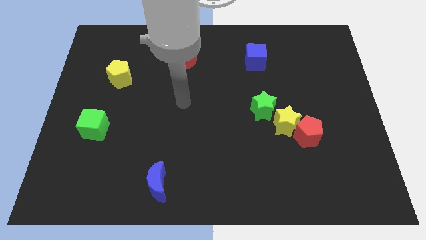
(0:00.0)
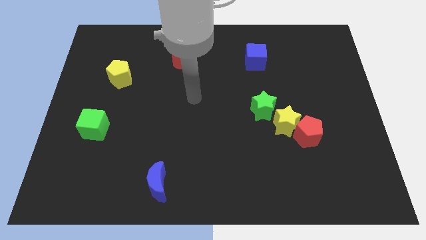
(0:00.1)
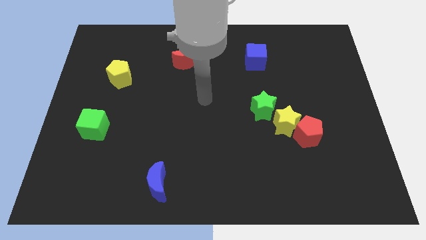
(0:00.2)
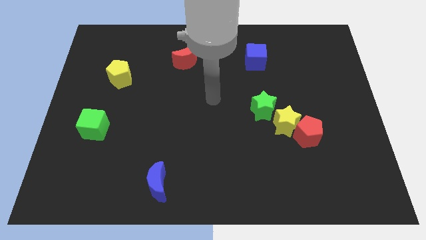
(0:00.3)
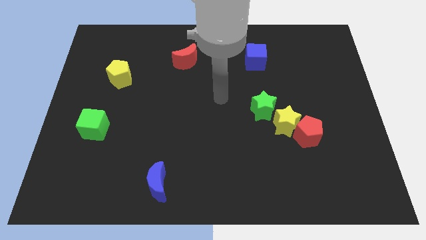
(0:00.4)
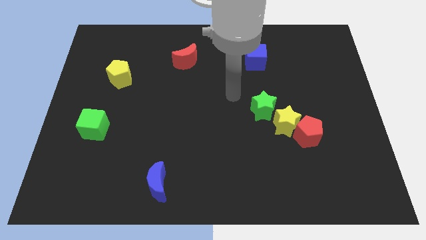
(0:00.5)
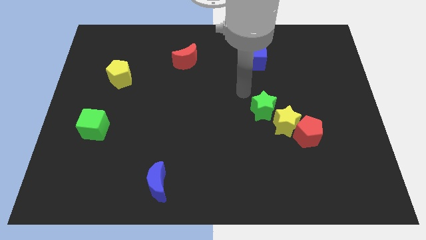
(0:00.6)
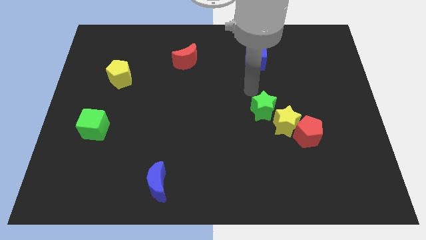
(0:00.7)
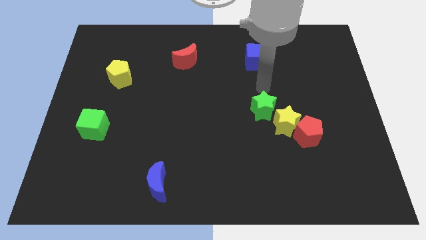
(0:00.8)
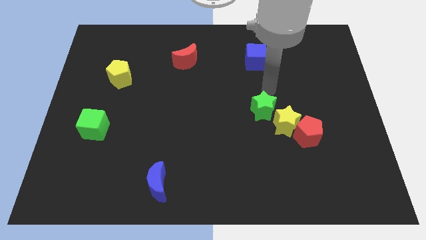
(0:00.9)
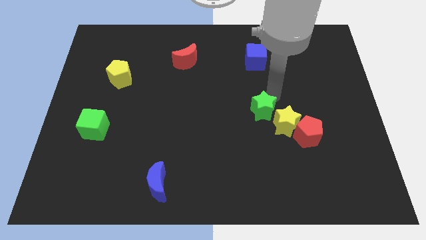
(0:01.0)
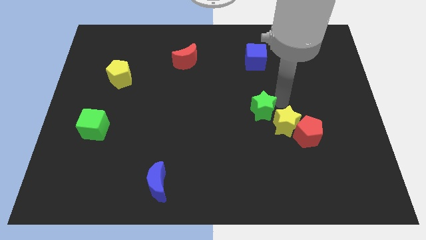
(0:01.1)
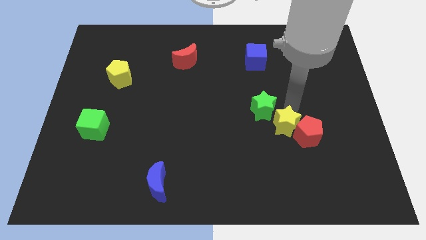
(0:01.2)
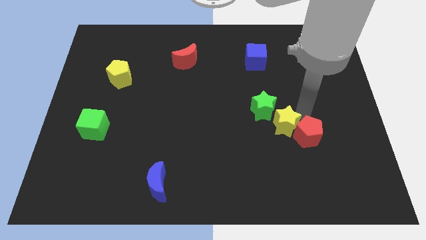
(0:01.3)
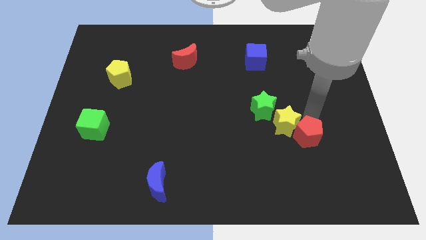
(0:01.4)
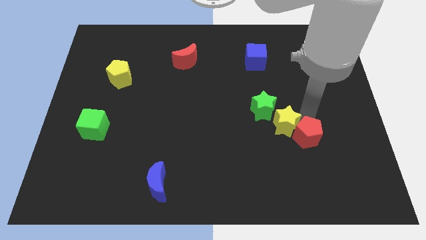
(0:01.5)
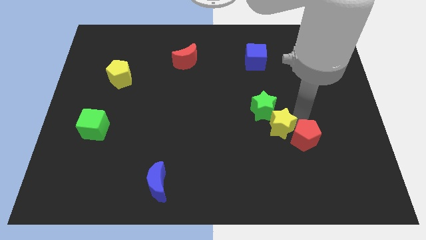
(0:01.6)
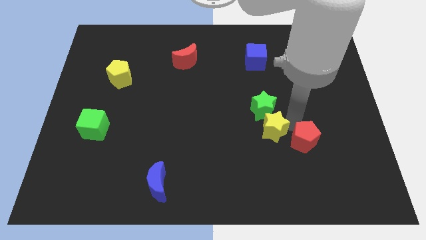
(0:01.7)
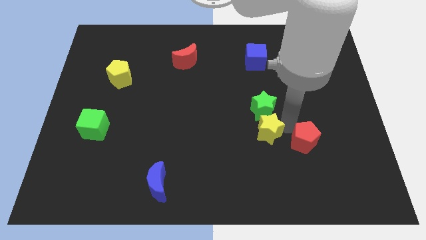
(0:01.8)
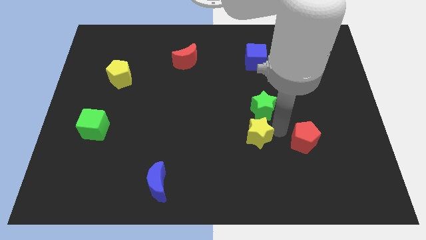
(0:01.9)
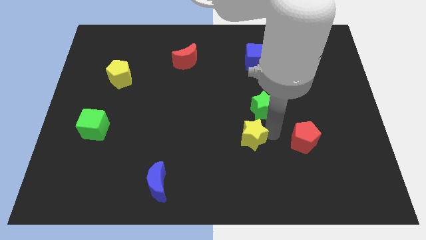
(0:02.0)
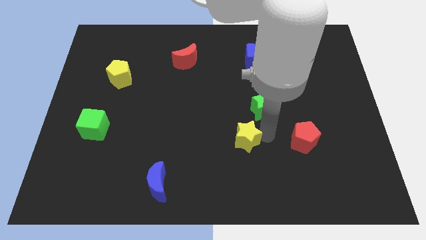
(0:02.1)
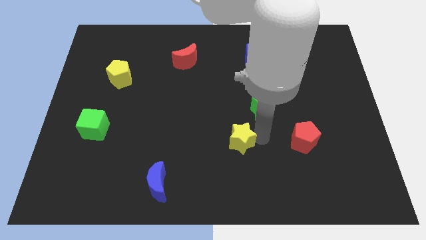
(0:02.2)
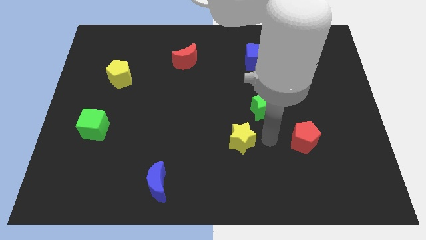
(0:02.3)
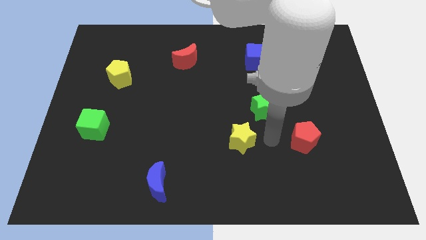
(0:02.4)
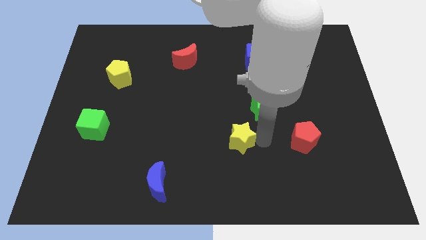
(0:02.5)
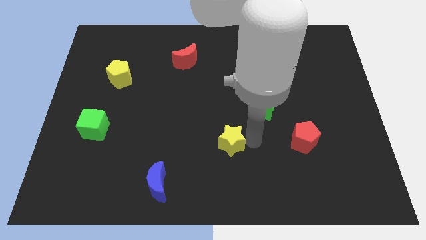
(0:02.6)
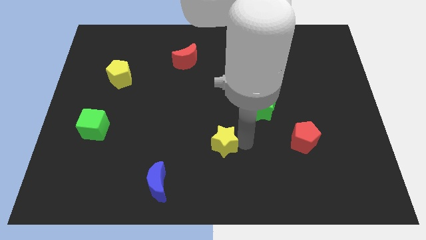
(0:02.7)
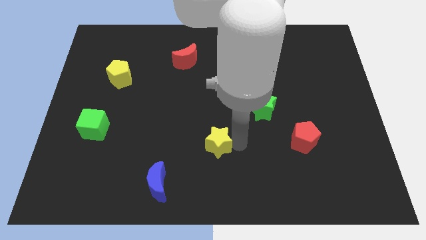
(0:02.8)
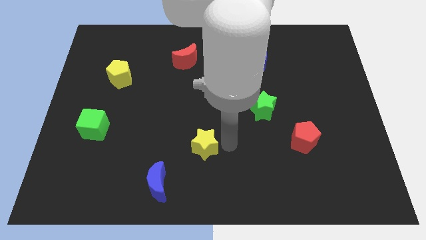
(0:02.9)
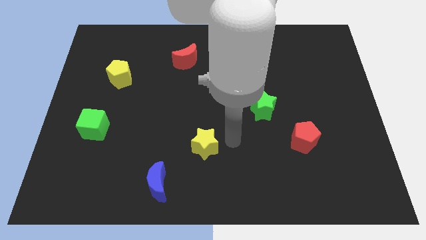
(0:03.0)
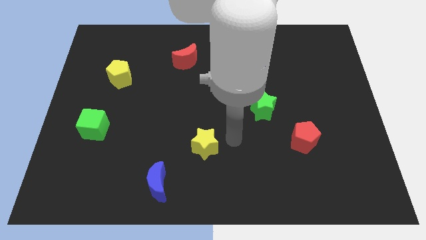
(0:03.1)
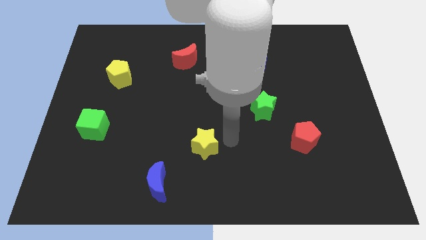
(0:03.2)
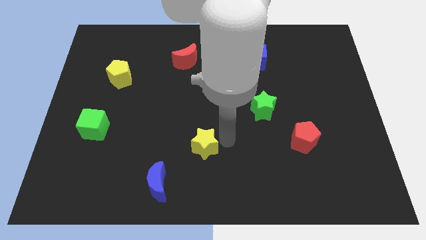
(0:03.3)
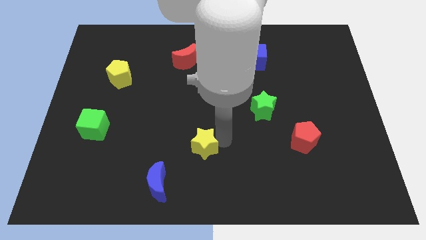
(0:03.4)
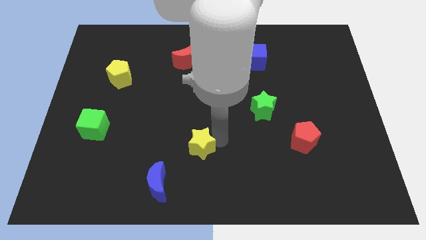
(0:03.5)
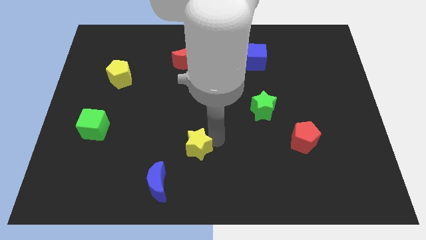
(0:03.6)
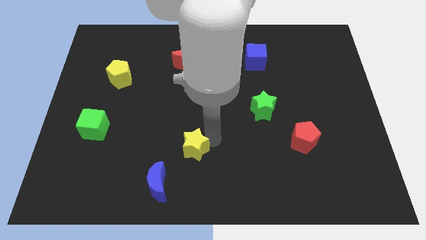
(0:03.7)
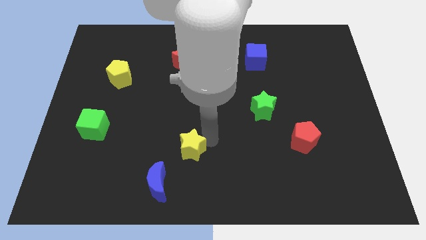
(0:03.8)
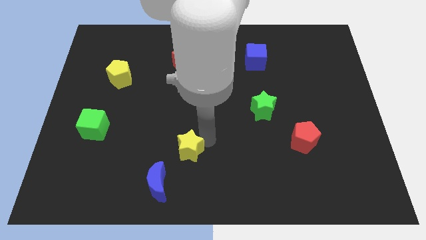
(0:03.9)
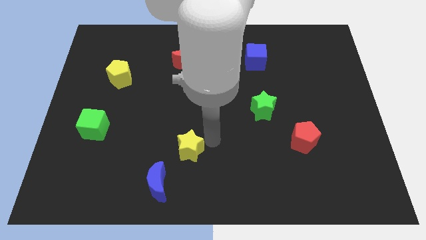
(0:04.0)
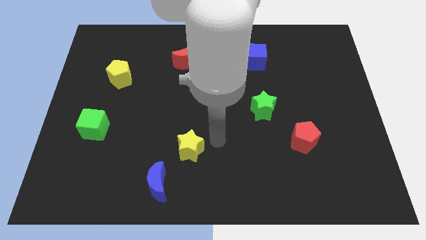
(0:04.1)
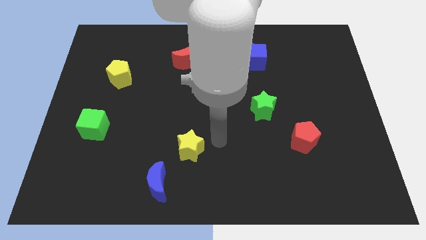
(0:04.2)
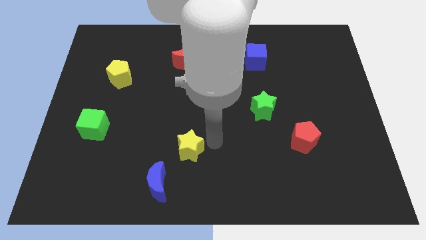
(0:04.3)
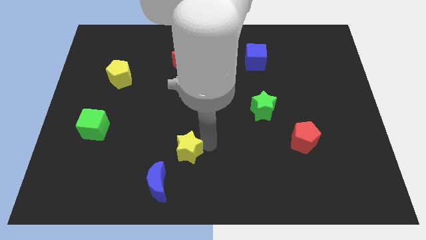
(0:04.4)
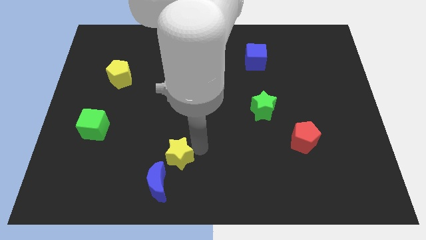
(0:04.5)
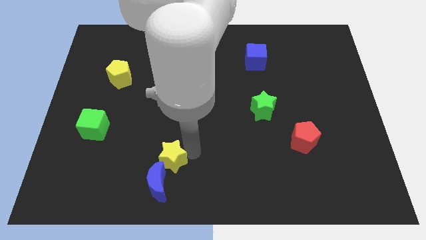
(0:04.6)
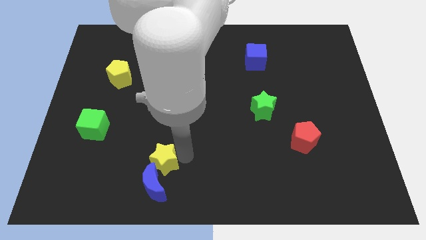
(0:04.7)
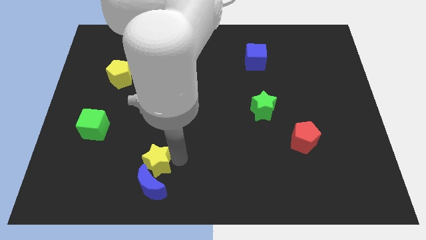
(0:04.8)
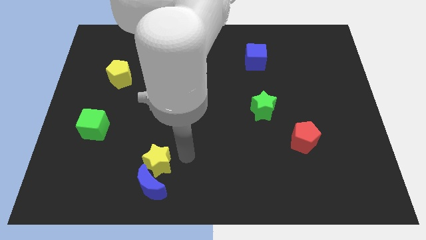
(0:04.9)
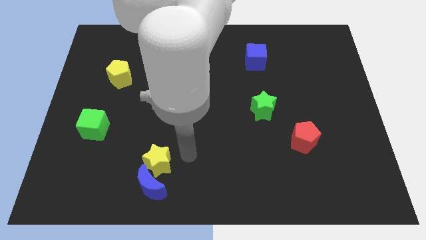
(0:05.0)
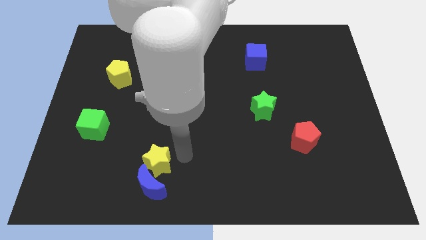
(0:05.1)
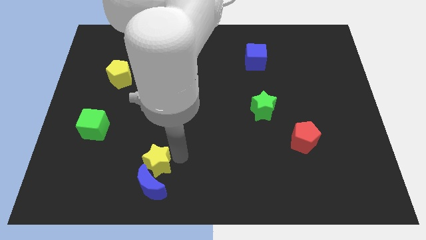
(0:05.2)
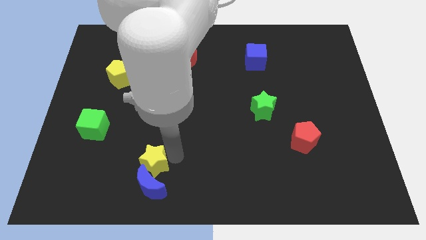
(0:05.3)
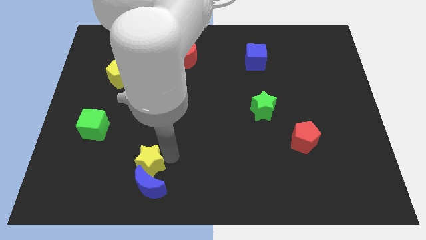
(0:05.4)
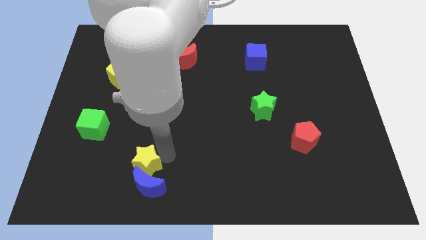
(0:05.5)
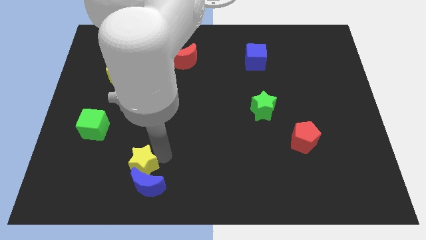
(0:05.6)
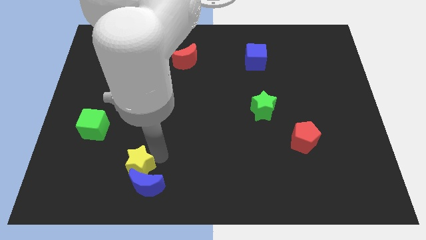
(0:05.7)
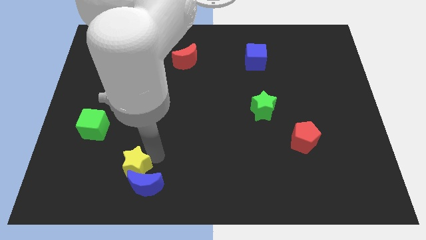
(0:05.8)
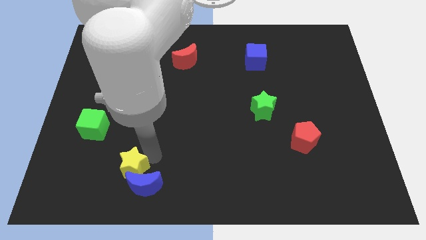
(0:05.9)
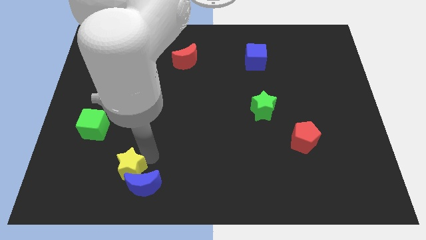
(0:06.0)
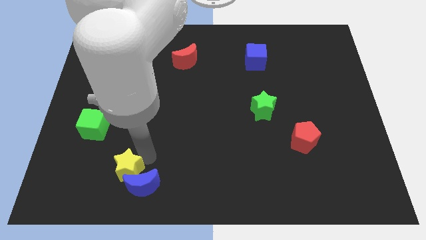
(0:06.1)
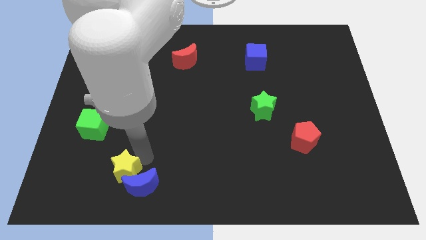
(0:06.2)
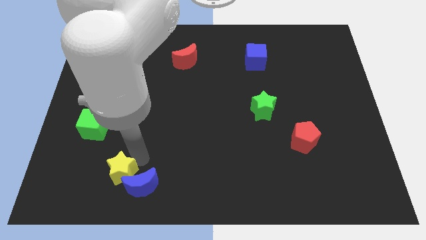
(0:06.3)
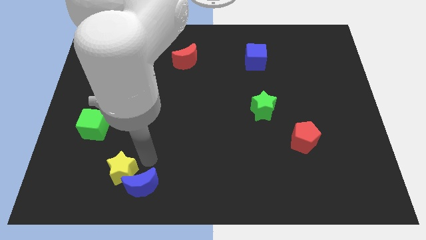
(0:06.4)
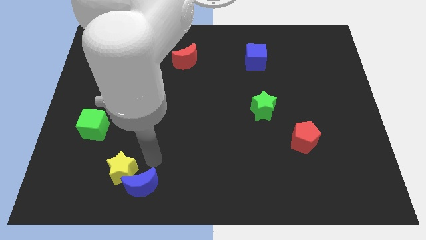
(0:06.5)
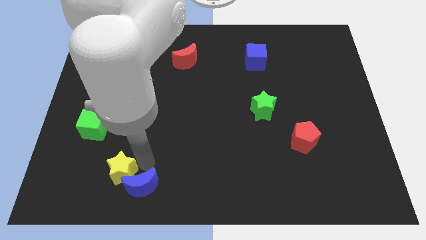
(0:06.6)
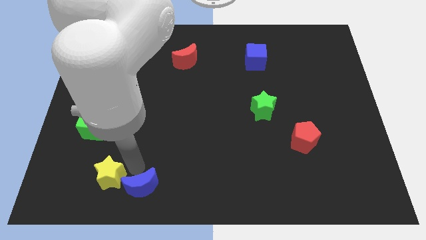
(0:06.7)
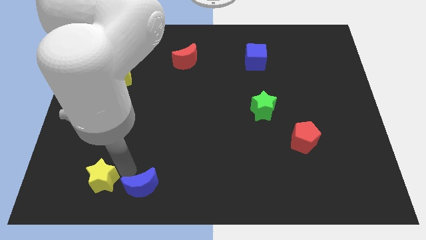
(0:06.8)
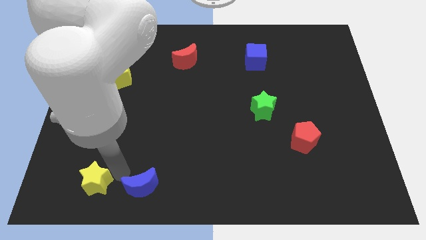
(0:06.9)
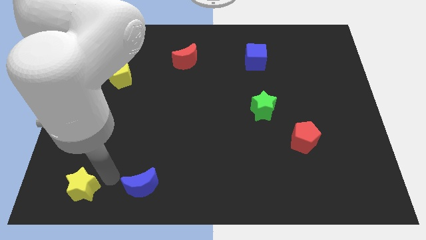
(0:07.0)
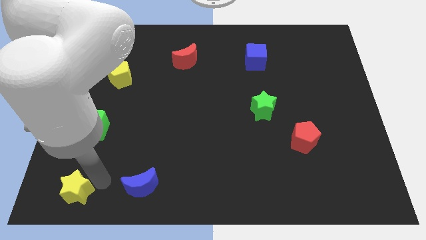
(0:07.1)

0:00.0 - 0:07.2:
push the yellow star to the bottom left of the board
